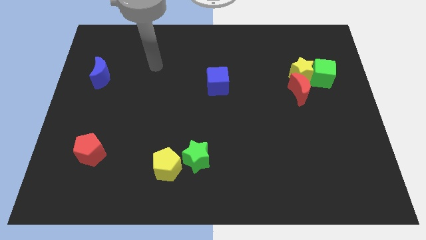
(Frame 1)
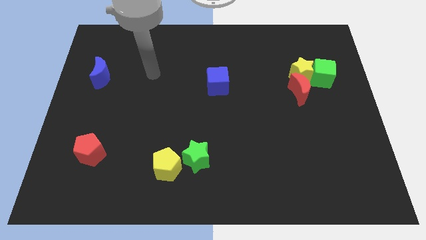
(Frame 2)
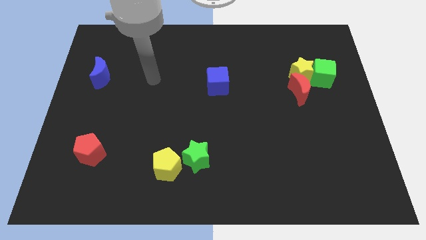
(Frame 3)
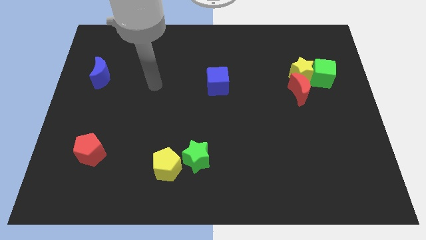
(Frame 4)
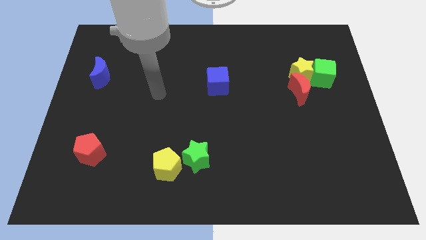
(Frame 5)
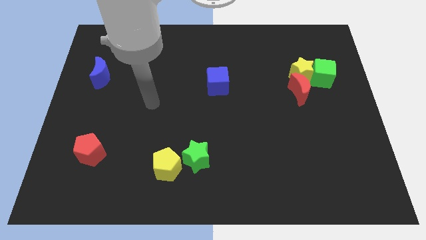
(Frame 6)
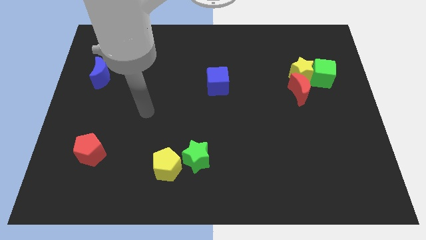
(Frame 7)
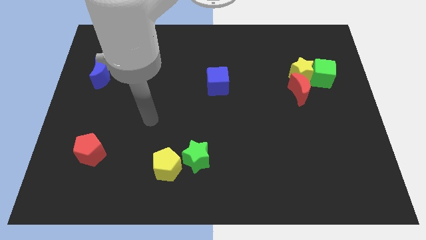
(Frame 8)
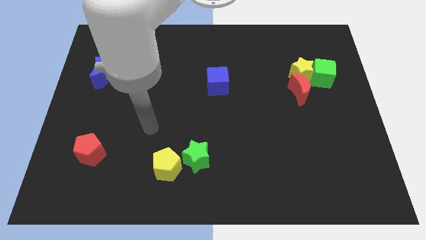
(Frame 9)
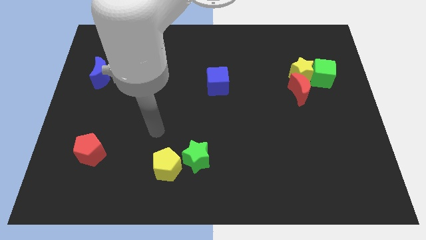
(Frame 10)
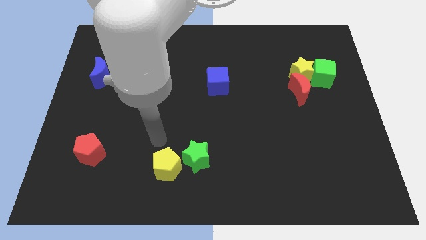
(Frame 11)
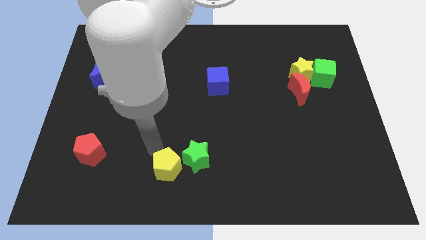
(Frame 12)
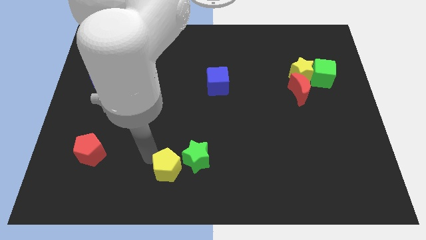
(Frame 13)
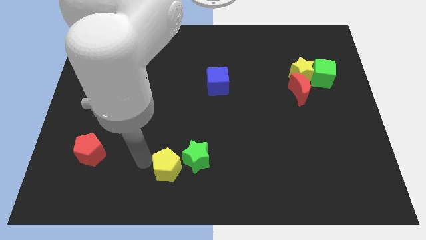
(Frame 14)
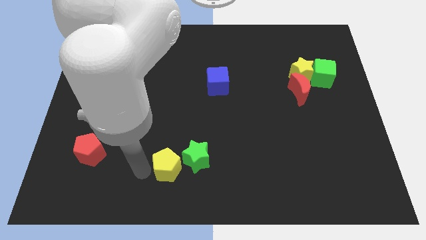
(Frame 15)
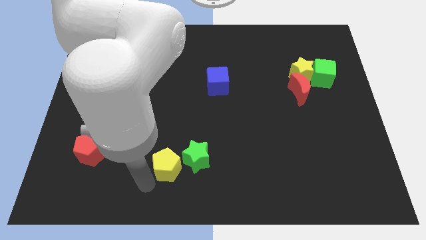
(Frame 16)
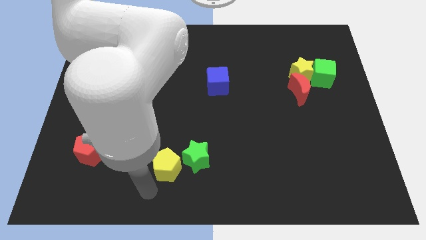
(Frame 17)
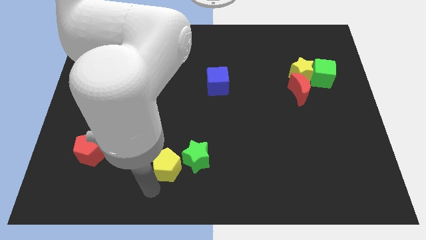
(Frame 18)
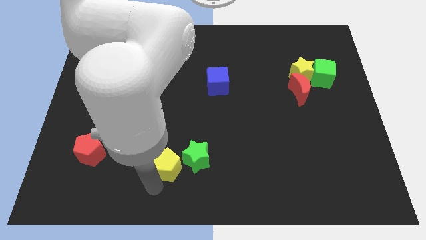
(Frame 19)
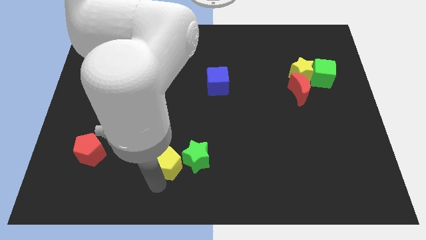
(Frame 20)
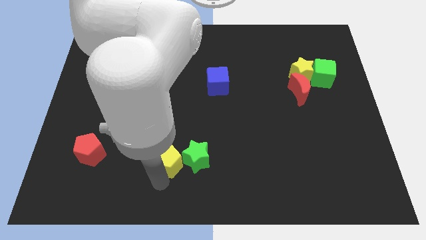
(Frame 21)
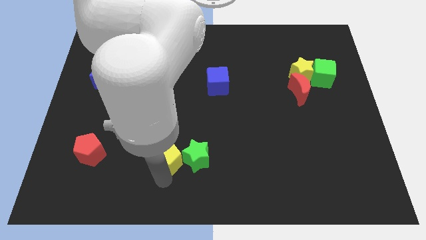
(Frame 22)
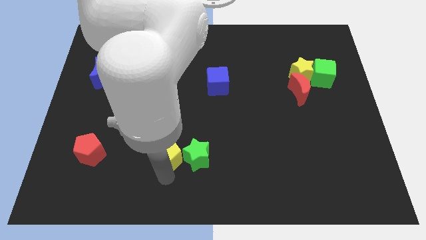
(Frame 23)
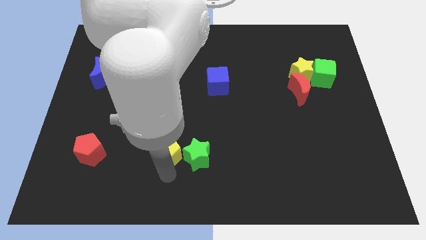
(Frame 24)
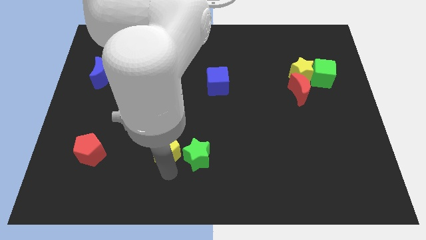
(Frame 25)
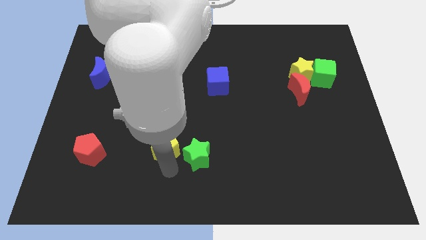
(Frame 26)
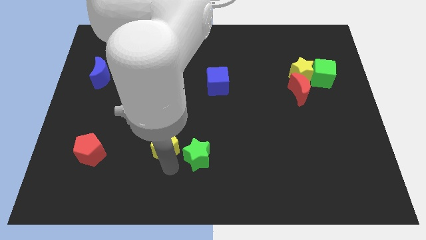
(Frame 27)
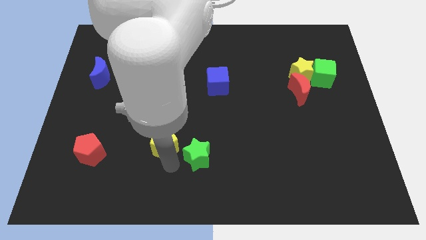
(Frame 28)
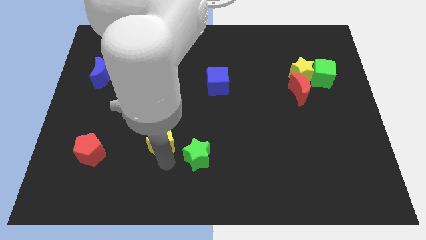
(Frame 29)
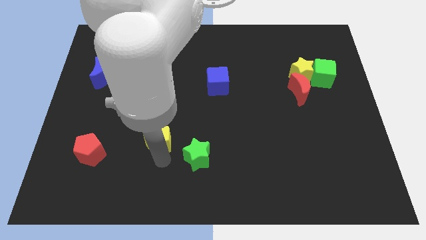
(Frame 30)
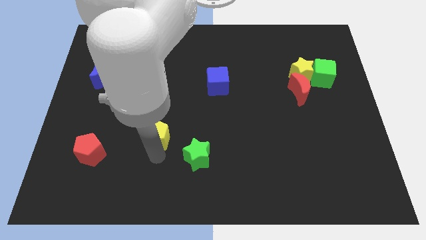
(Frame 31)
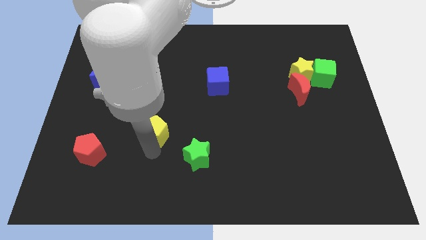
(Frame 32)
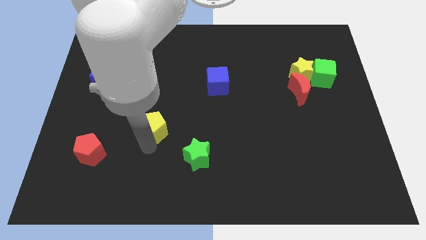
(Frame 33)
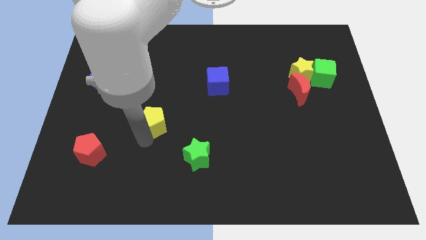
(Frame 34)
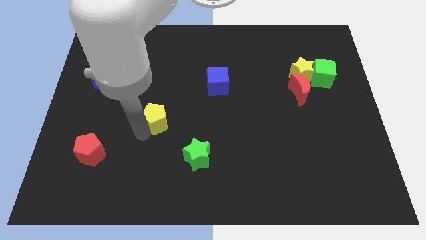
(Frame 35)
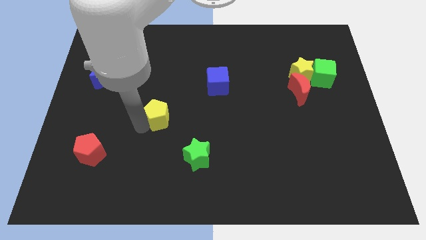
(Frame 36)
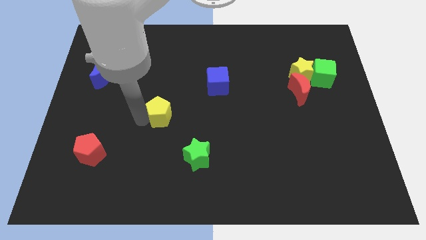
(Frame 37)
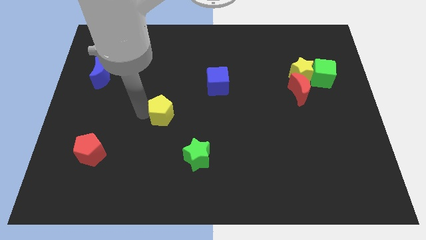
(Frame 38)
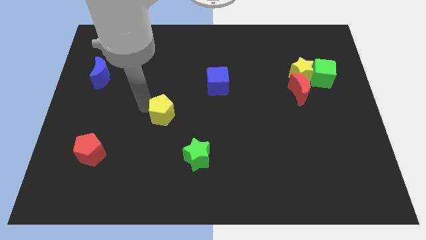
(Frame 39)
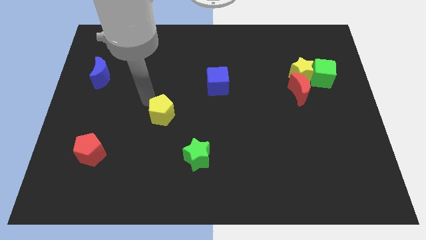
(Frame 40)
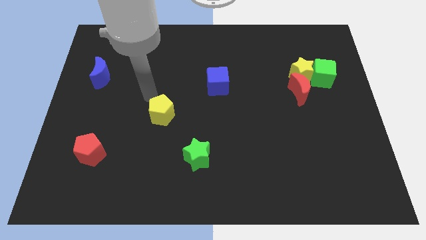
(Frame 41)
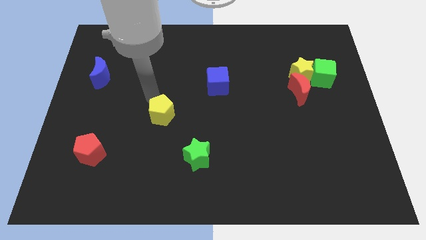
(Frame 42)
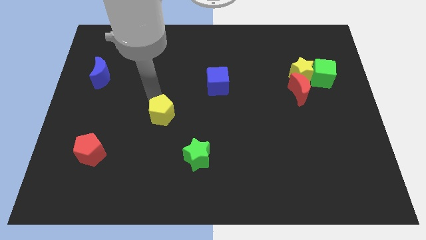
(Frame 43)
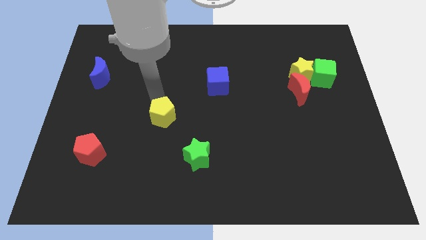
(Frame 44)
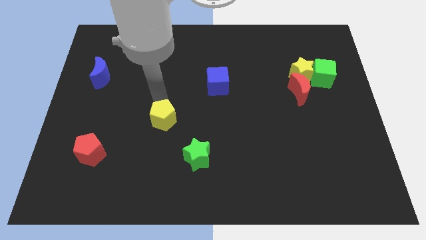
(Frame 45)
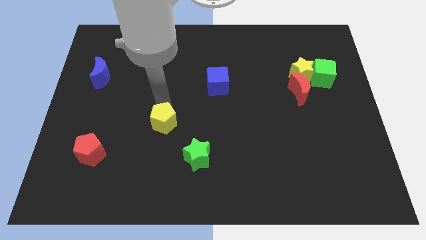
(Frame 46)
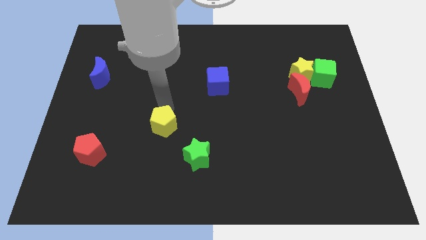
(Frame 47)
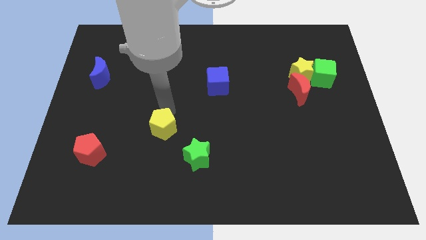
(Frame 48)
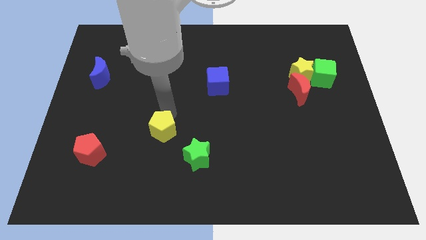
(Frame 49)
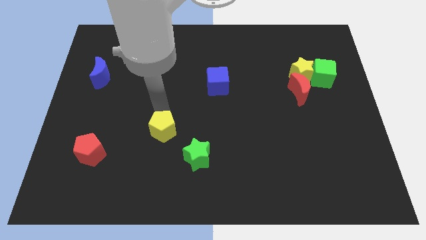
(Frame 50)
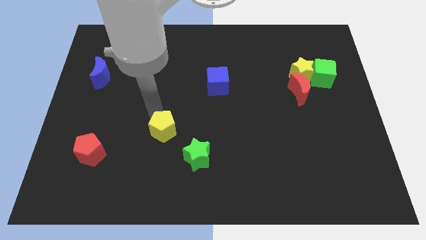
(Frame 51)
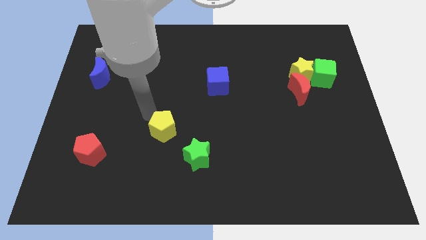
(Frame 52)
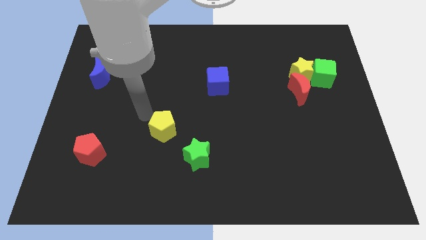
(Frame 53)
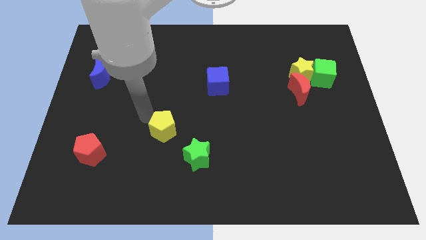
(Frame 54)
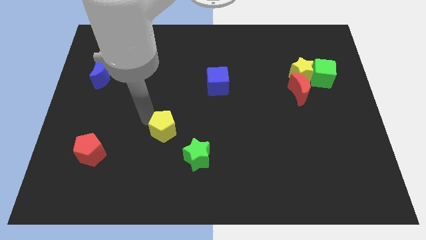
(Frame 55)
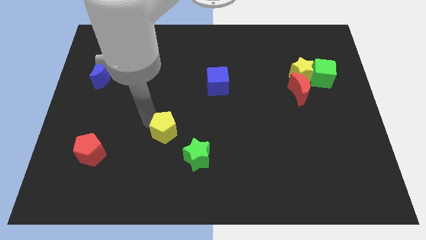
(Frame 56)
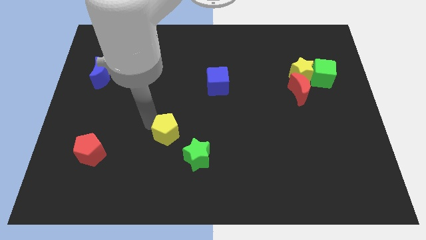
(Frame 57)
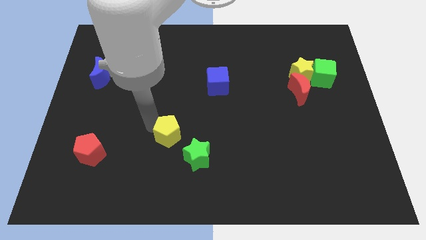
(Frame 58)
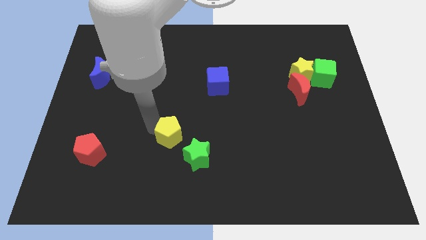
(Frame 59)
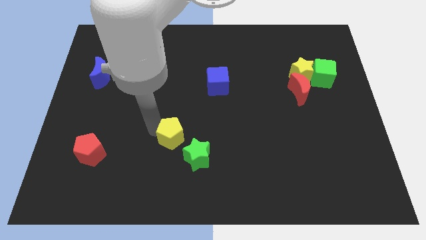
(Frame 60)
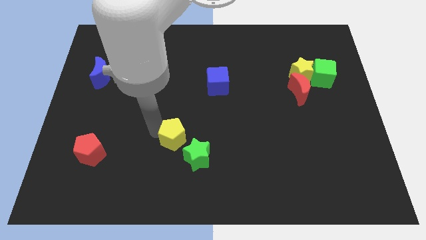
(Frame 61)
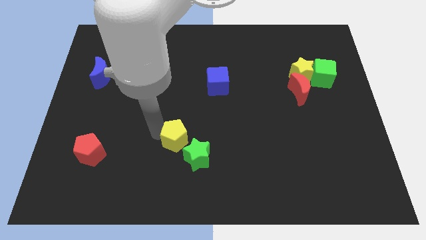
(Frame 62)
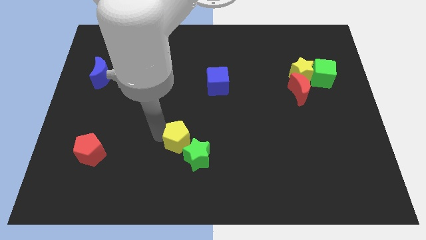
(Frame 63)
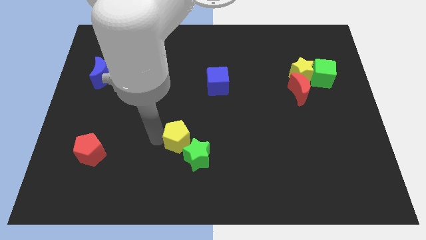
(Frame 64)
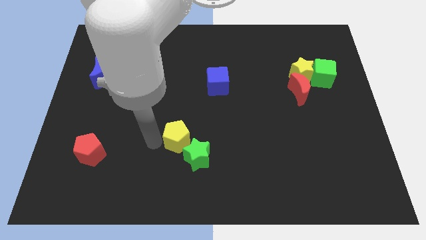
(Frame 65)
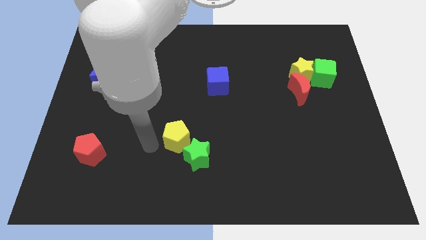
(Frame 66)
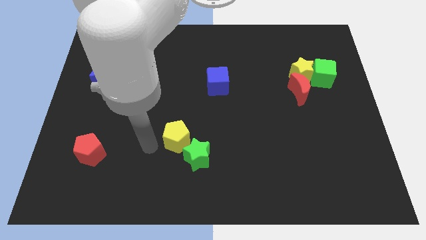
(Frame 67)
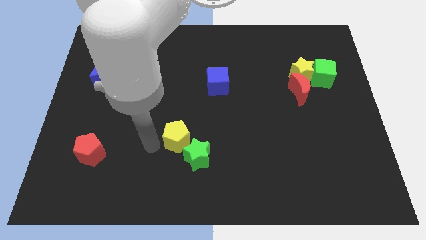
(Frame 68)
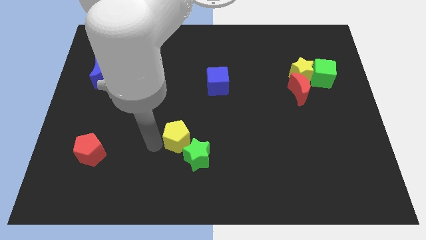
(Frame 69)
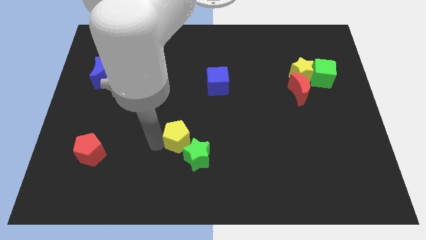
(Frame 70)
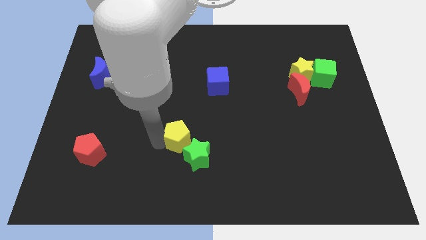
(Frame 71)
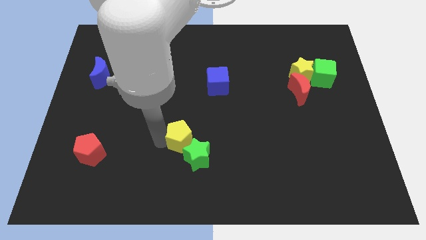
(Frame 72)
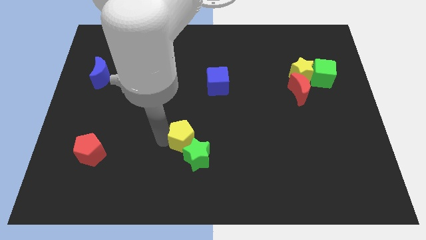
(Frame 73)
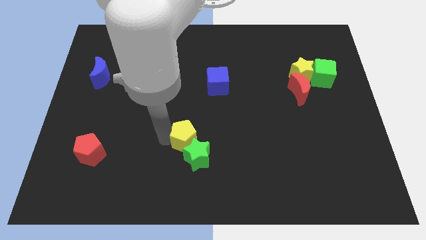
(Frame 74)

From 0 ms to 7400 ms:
slightly slide the yellow pentagon upwards and to the right

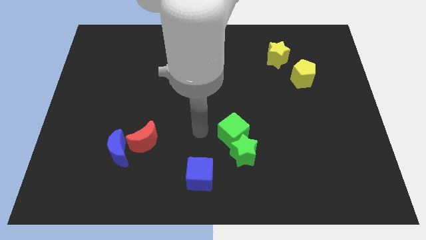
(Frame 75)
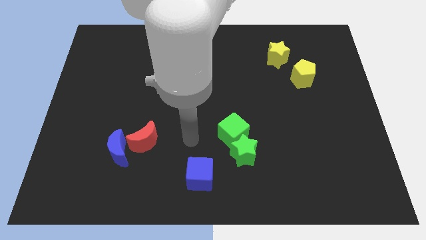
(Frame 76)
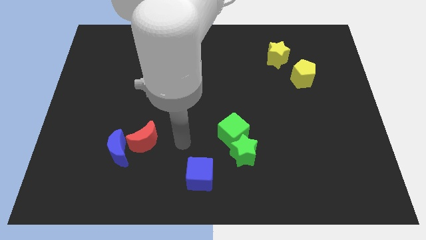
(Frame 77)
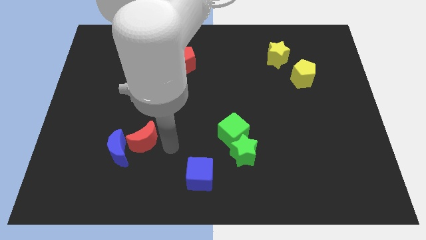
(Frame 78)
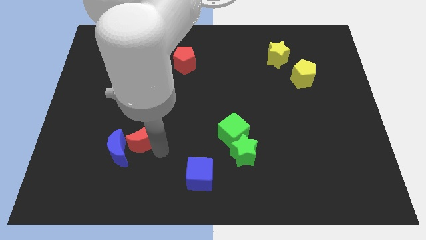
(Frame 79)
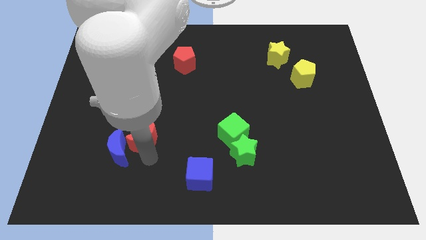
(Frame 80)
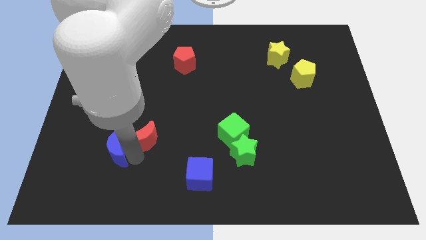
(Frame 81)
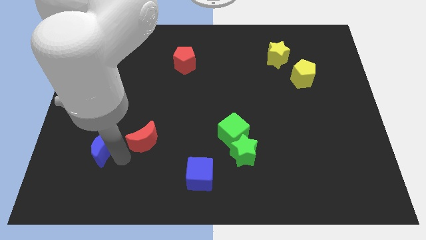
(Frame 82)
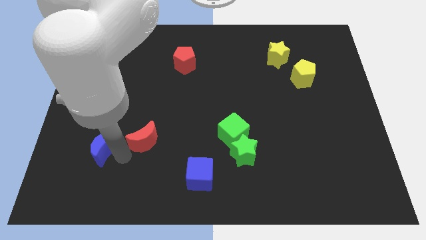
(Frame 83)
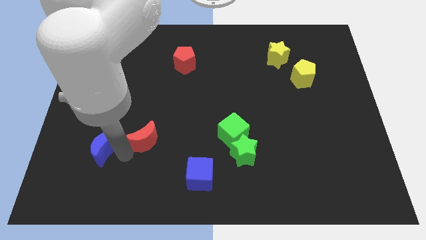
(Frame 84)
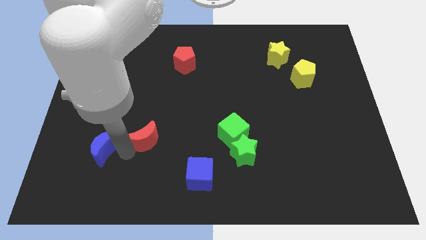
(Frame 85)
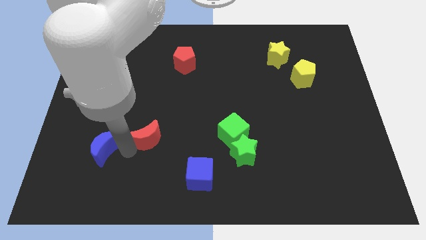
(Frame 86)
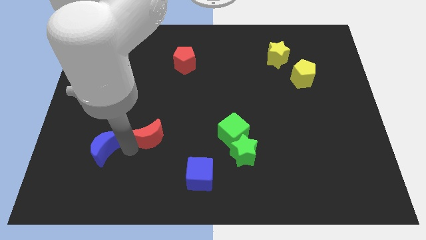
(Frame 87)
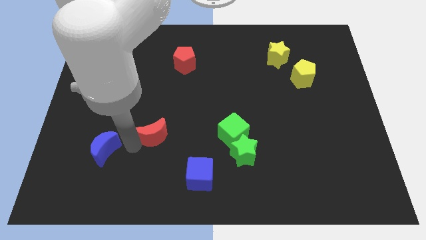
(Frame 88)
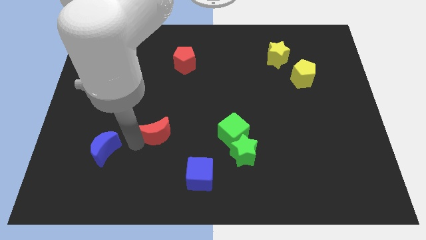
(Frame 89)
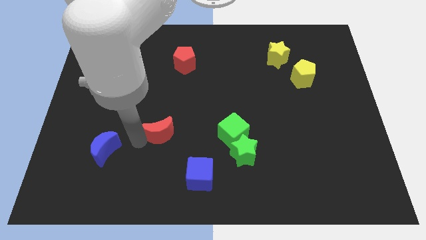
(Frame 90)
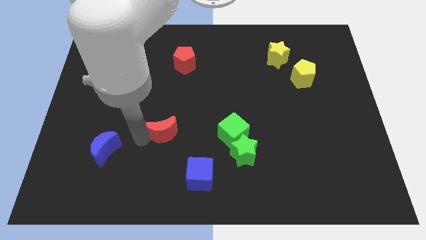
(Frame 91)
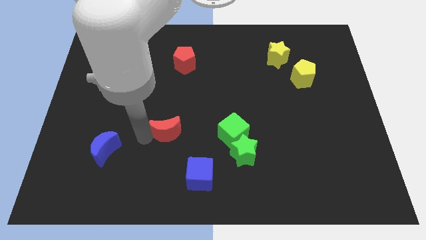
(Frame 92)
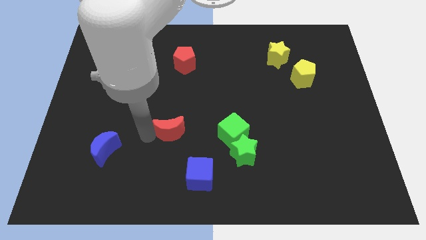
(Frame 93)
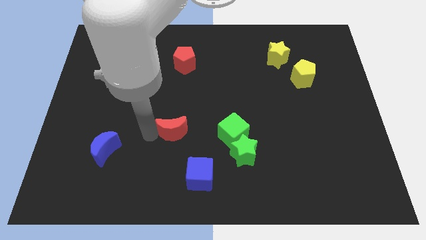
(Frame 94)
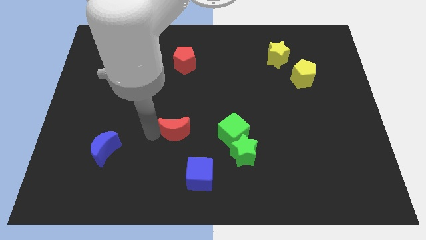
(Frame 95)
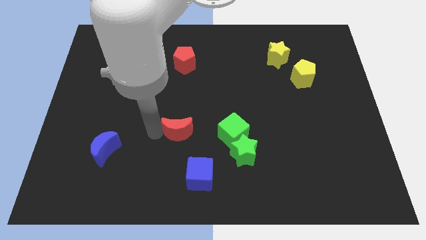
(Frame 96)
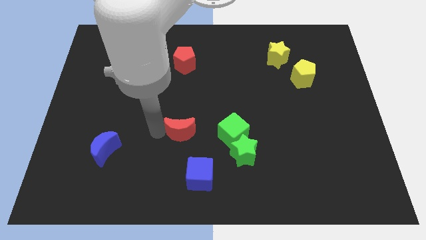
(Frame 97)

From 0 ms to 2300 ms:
slightly push the red moon up and to the right diagonally
